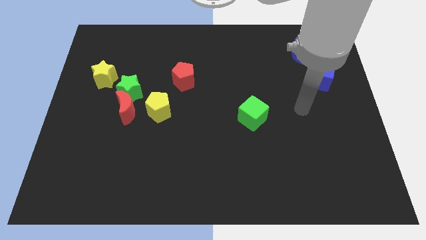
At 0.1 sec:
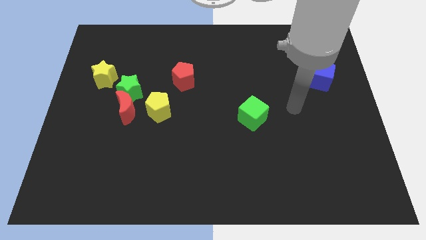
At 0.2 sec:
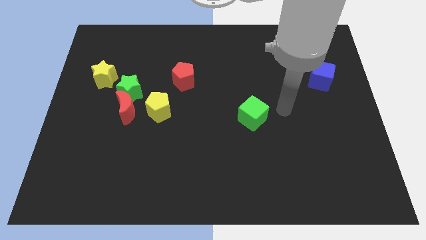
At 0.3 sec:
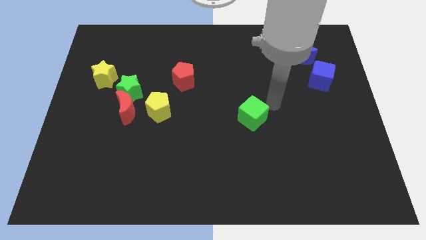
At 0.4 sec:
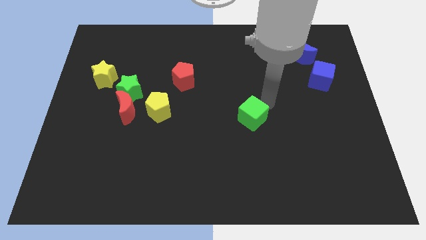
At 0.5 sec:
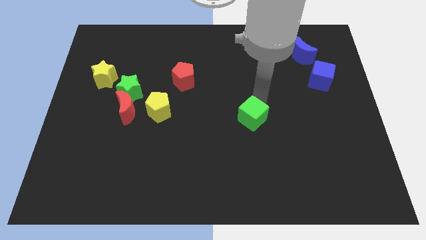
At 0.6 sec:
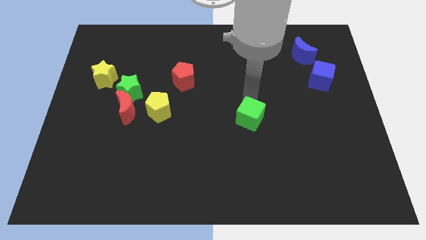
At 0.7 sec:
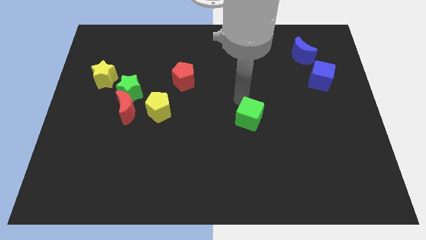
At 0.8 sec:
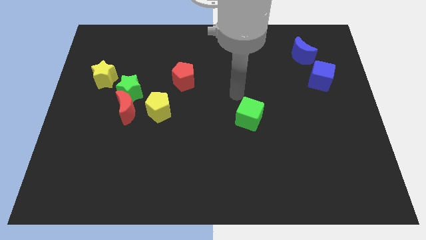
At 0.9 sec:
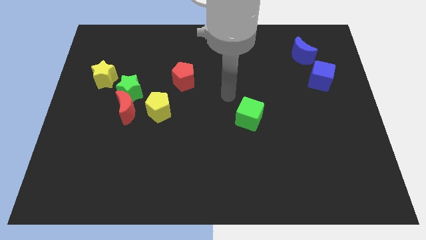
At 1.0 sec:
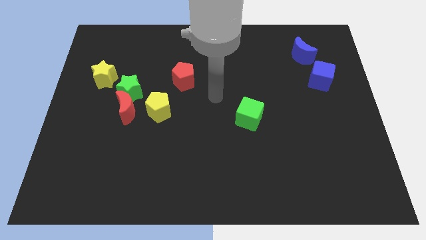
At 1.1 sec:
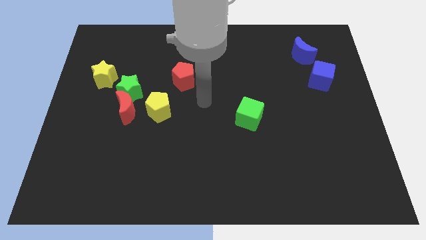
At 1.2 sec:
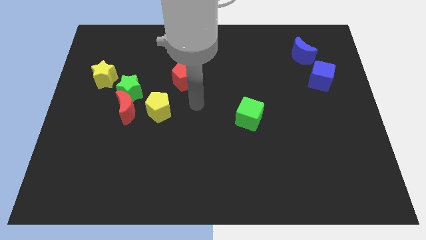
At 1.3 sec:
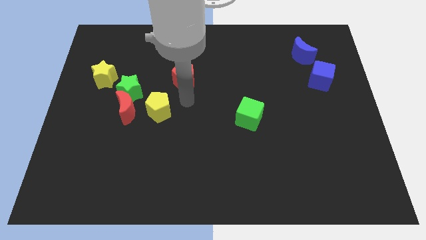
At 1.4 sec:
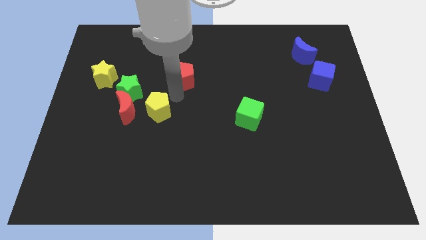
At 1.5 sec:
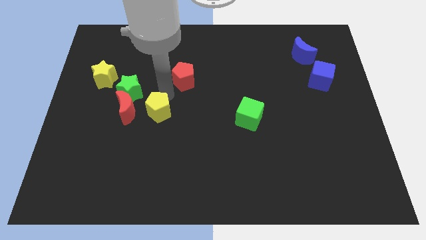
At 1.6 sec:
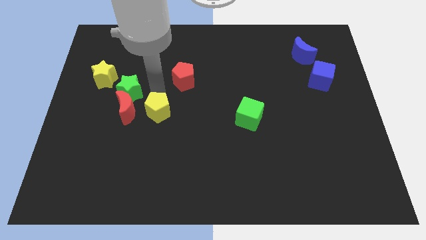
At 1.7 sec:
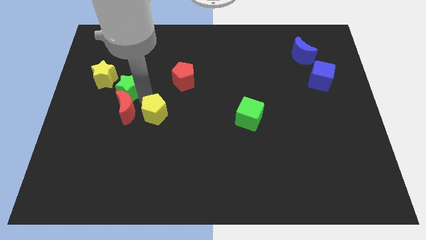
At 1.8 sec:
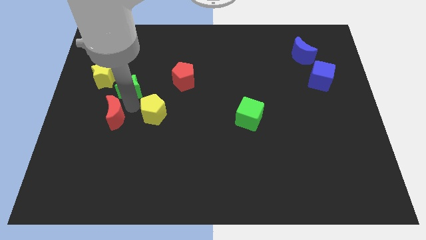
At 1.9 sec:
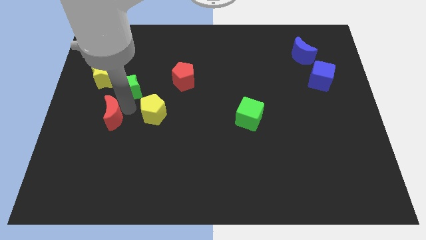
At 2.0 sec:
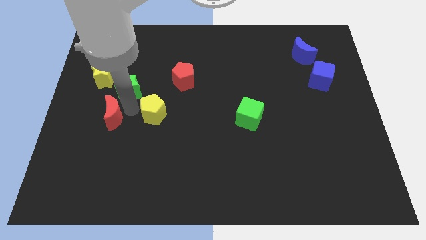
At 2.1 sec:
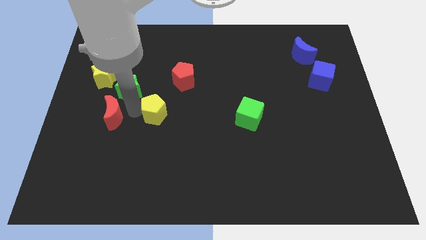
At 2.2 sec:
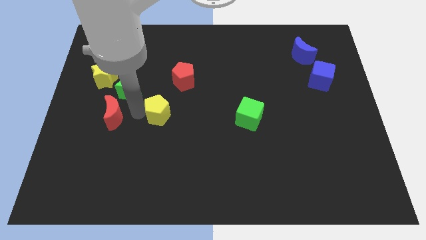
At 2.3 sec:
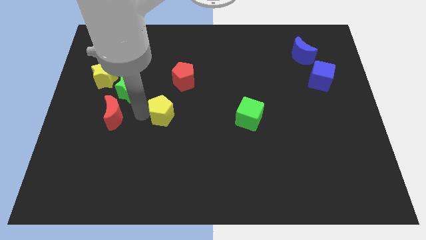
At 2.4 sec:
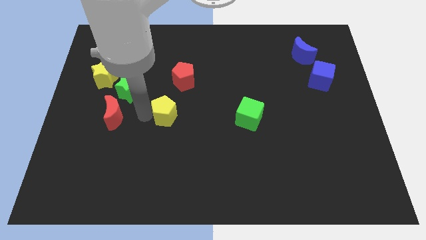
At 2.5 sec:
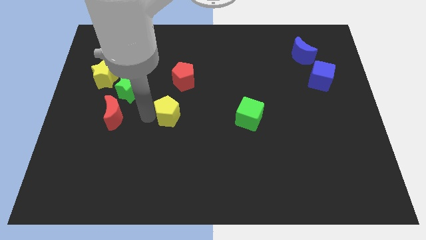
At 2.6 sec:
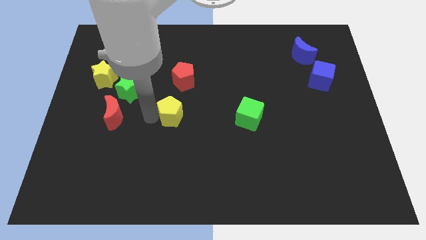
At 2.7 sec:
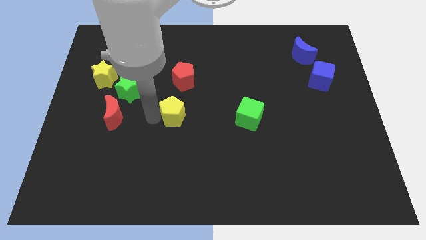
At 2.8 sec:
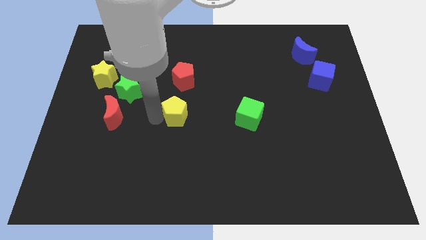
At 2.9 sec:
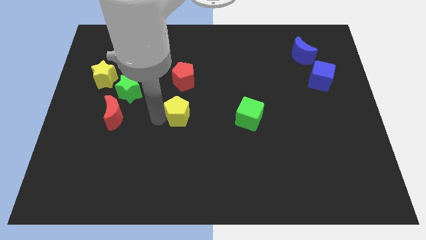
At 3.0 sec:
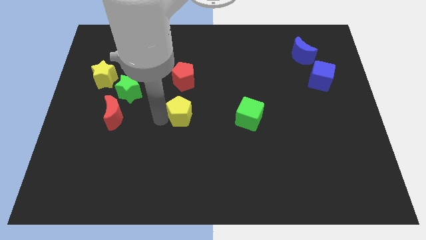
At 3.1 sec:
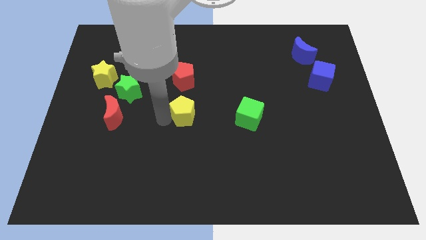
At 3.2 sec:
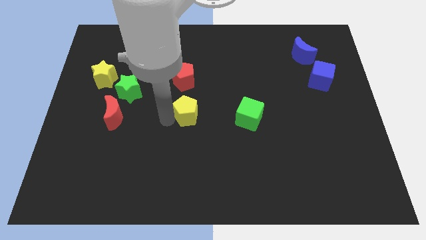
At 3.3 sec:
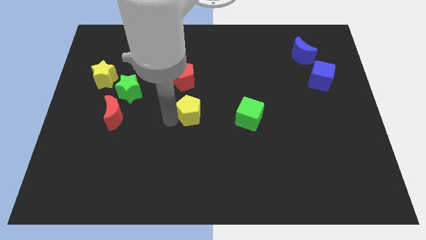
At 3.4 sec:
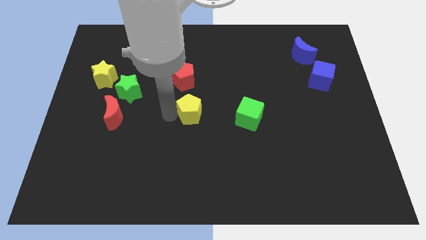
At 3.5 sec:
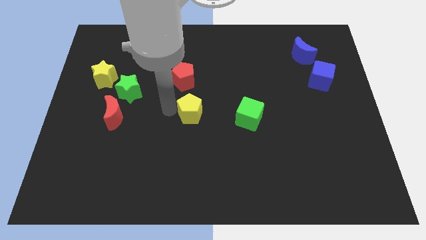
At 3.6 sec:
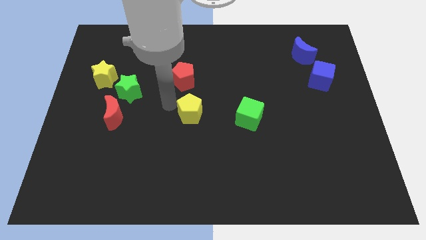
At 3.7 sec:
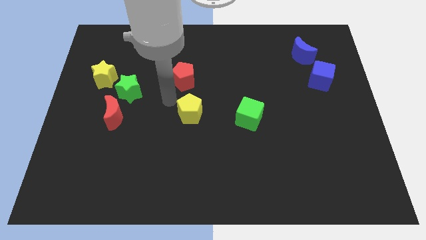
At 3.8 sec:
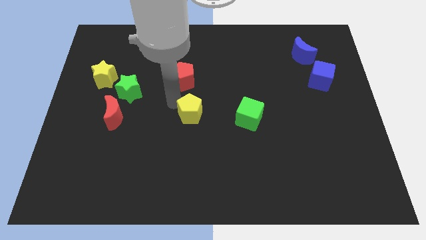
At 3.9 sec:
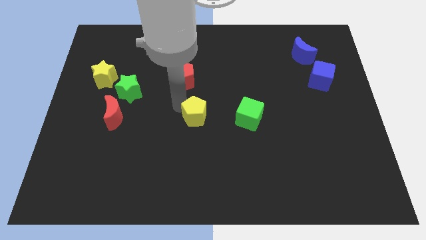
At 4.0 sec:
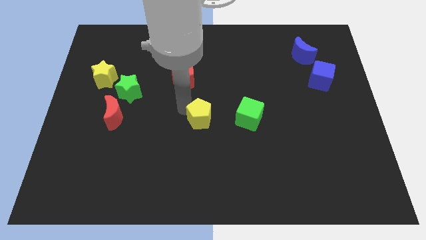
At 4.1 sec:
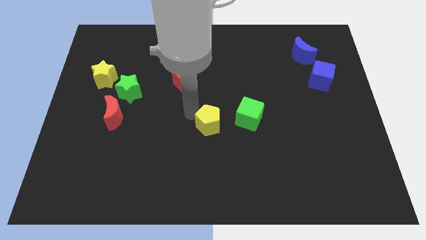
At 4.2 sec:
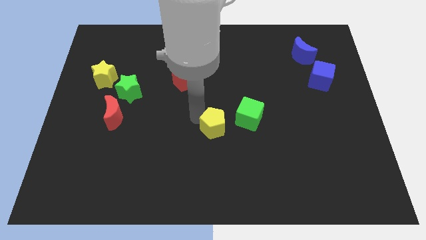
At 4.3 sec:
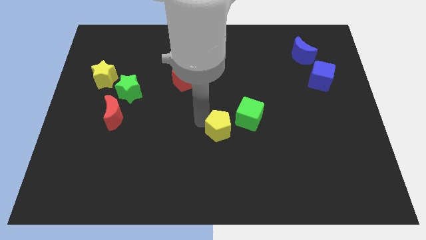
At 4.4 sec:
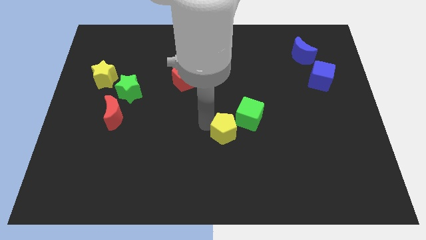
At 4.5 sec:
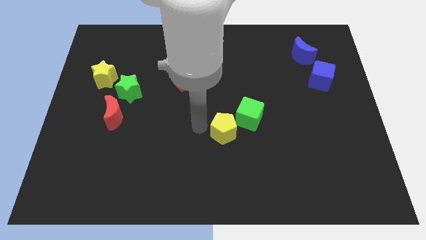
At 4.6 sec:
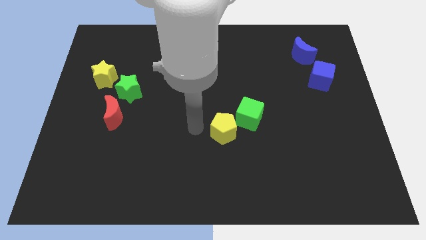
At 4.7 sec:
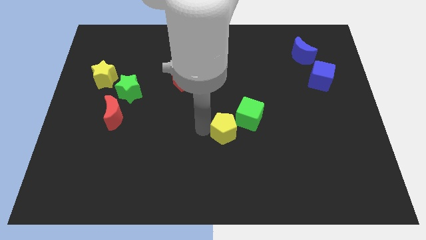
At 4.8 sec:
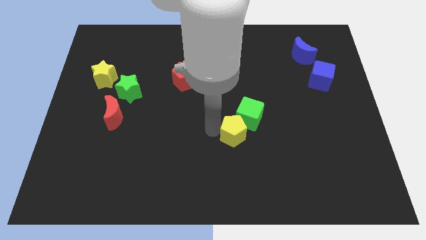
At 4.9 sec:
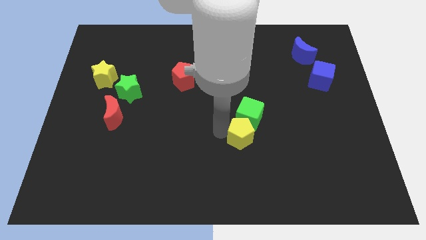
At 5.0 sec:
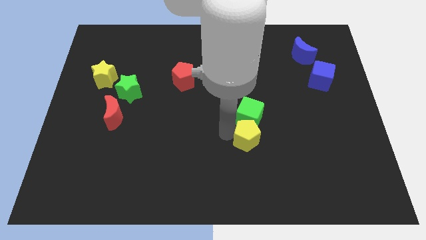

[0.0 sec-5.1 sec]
push the yellow pentagon to the bottom right side of the green cube
